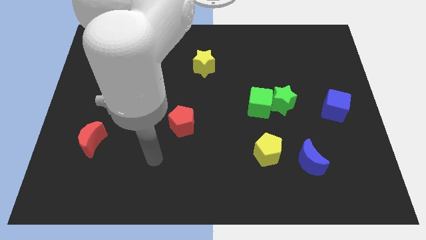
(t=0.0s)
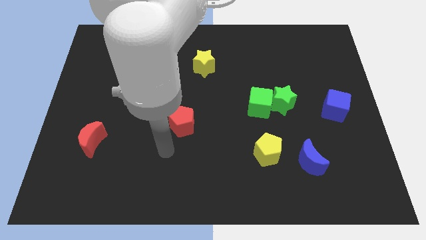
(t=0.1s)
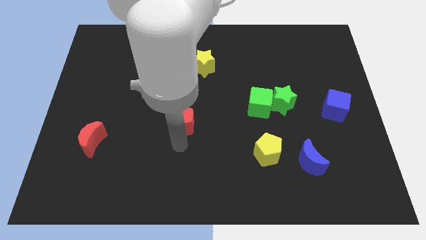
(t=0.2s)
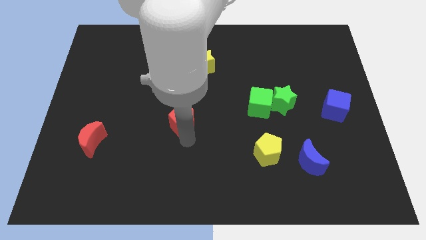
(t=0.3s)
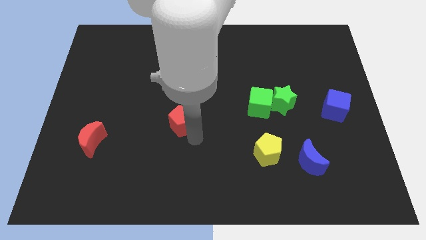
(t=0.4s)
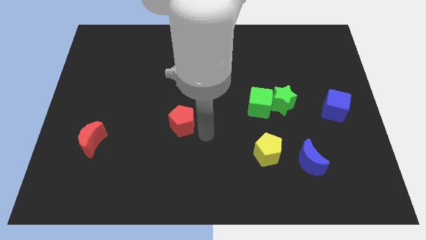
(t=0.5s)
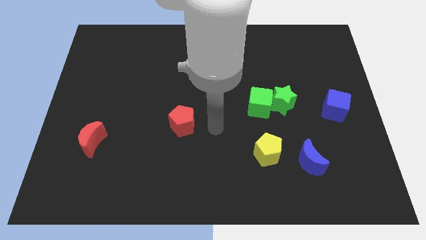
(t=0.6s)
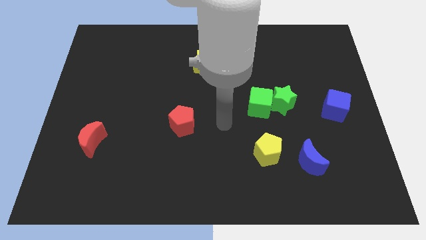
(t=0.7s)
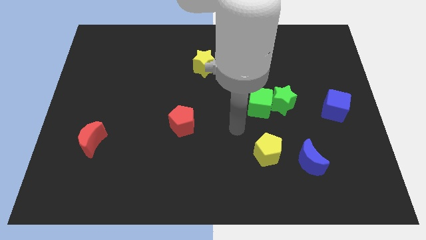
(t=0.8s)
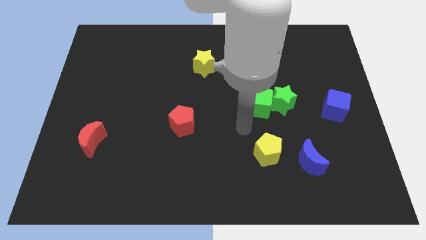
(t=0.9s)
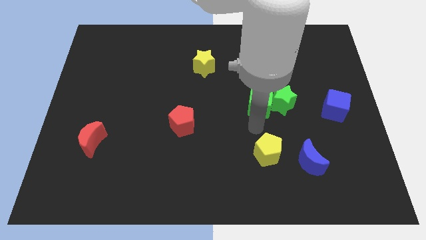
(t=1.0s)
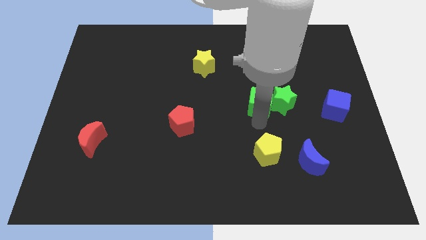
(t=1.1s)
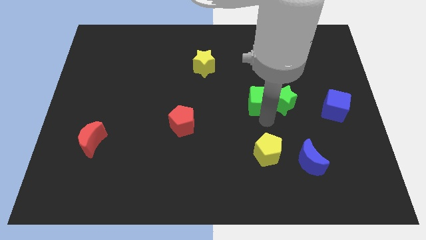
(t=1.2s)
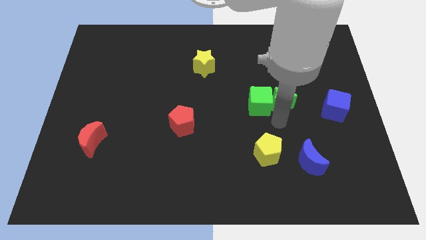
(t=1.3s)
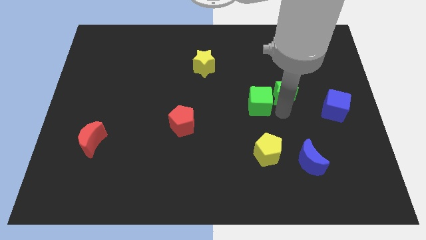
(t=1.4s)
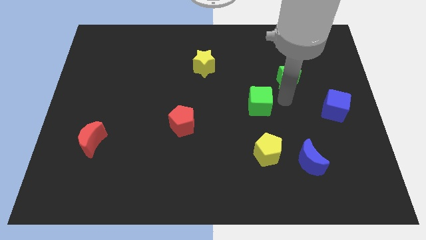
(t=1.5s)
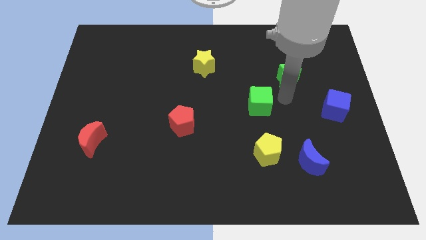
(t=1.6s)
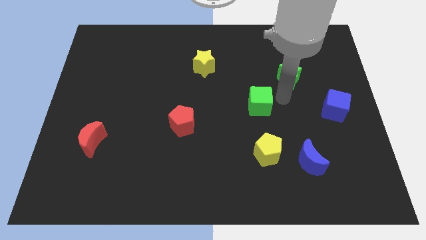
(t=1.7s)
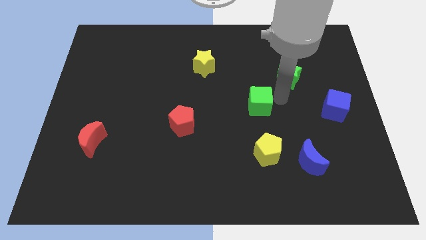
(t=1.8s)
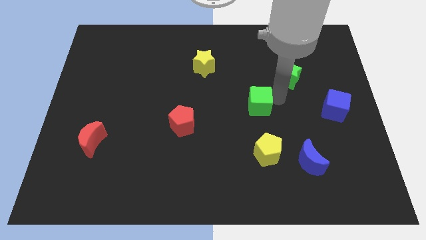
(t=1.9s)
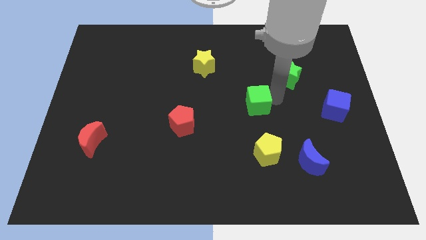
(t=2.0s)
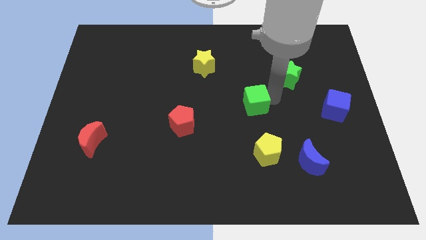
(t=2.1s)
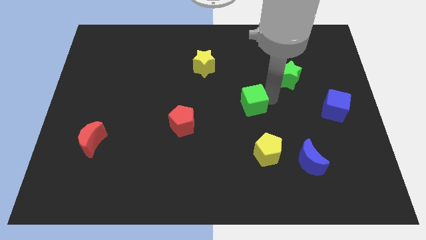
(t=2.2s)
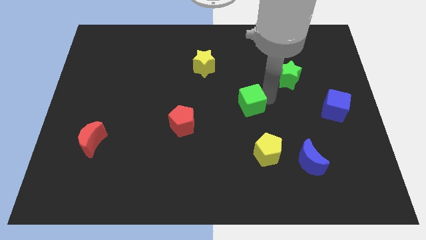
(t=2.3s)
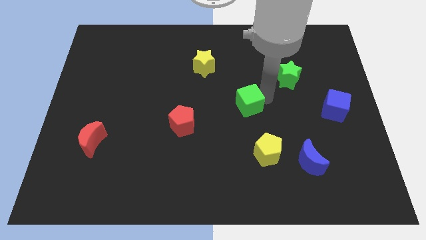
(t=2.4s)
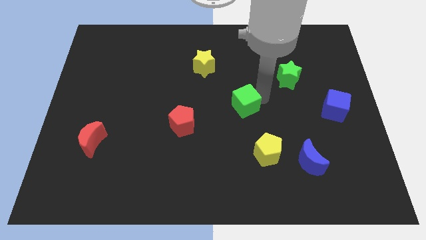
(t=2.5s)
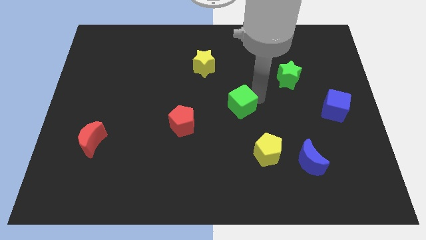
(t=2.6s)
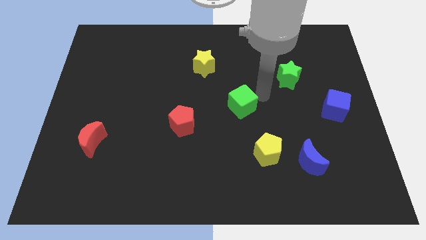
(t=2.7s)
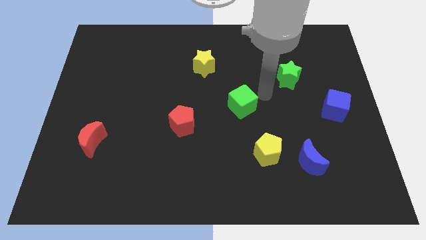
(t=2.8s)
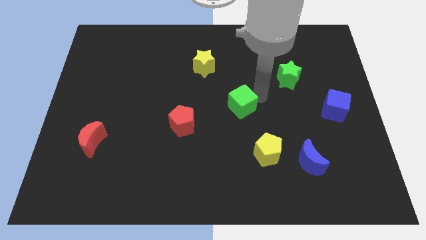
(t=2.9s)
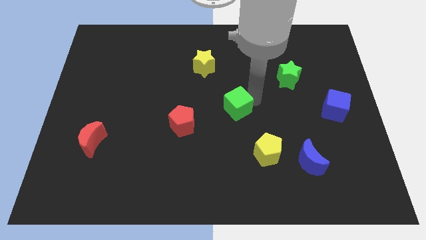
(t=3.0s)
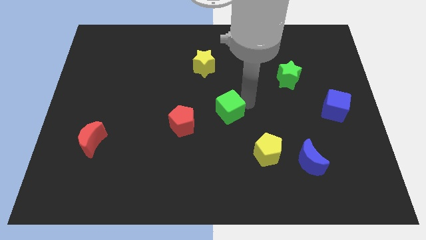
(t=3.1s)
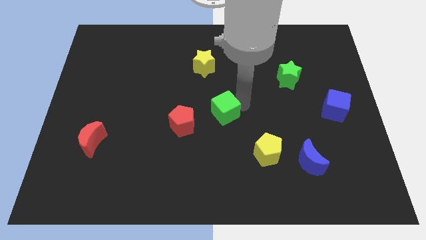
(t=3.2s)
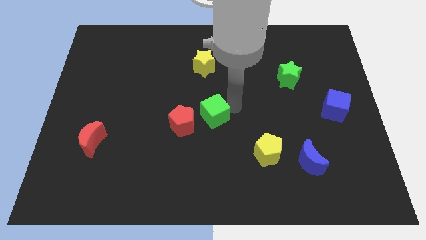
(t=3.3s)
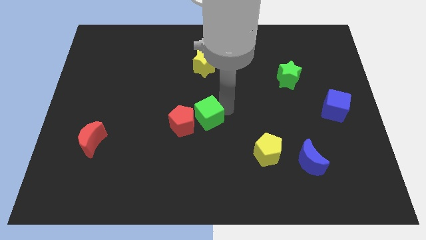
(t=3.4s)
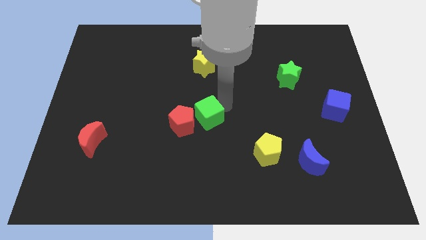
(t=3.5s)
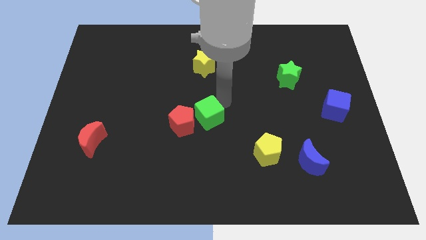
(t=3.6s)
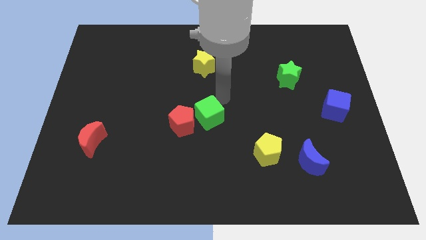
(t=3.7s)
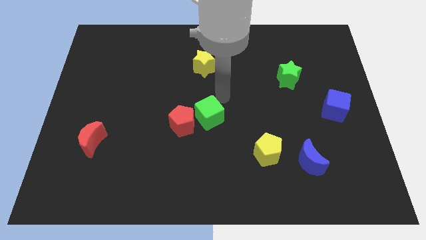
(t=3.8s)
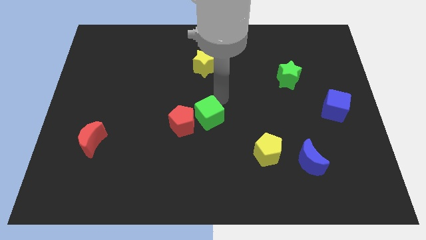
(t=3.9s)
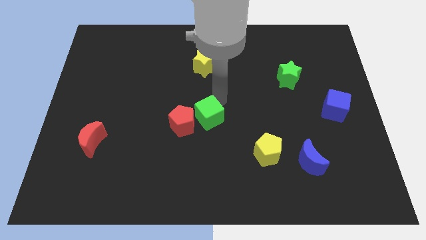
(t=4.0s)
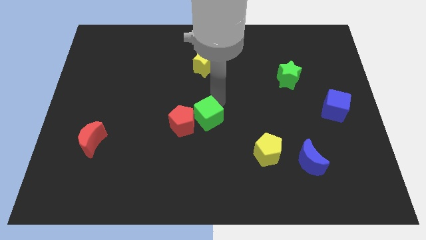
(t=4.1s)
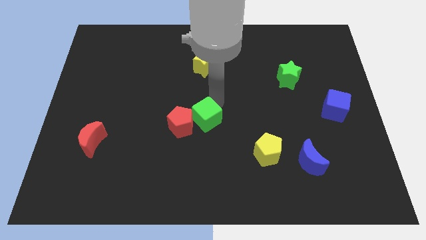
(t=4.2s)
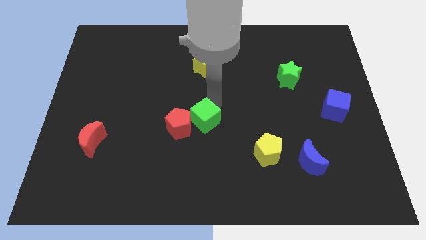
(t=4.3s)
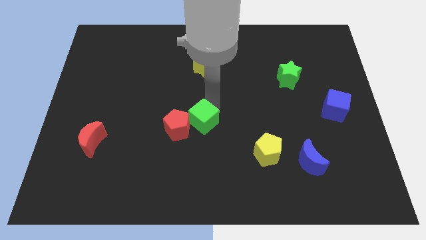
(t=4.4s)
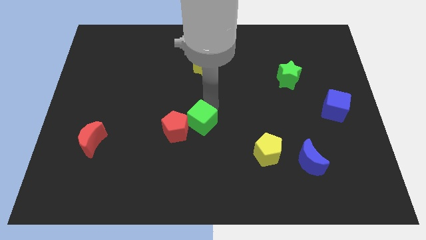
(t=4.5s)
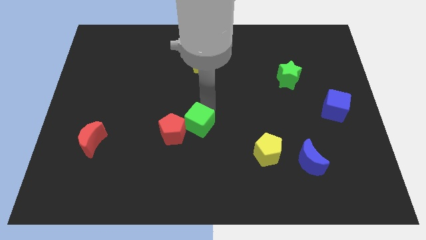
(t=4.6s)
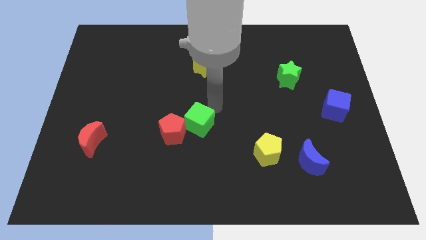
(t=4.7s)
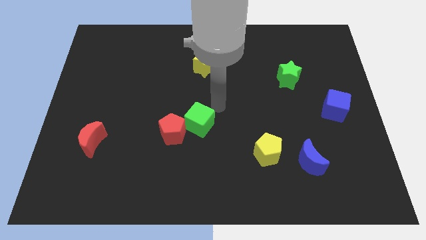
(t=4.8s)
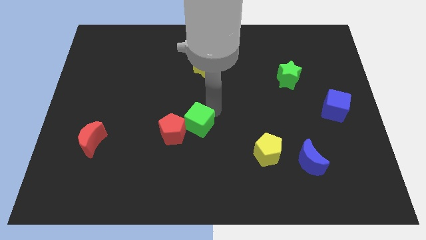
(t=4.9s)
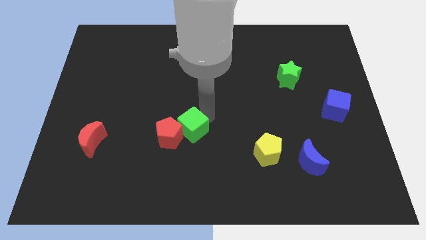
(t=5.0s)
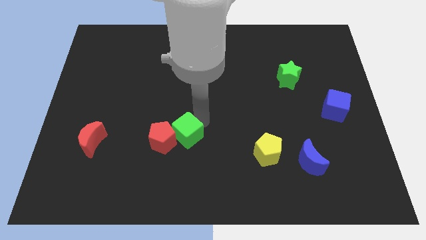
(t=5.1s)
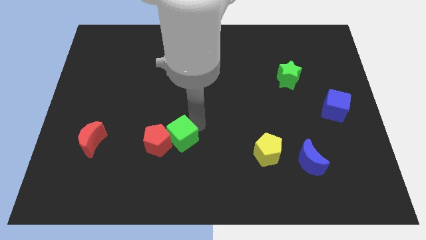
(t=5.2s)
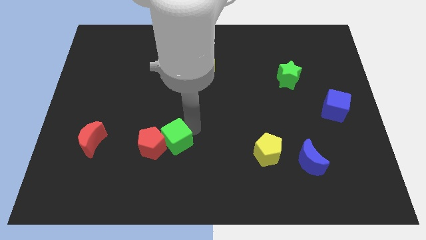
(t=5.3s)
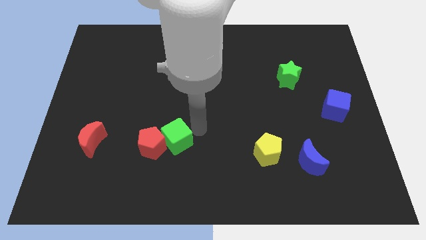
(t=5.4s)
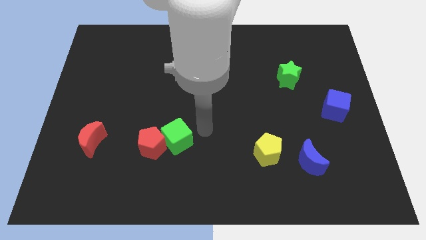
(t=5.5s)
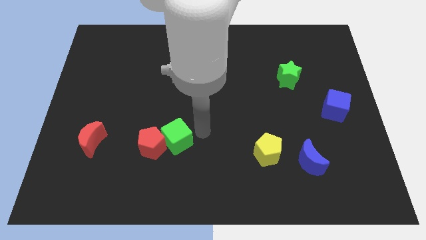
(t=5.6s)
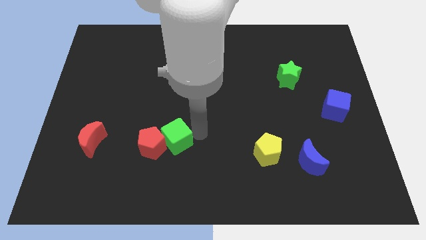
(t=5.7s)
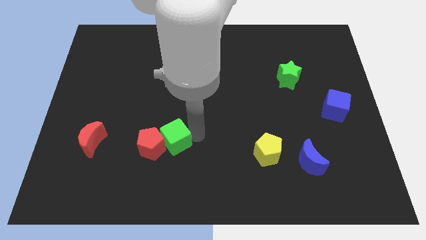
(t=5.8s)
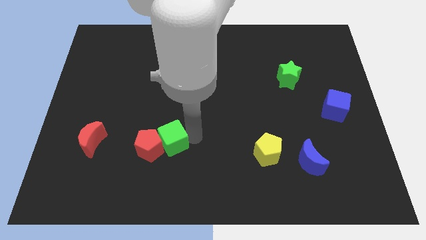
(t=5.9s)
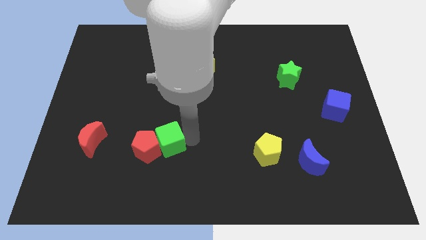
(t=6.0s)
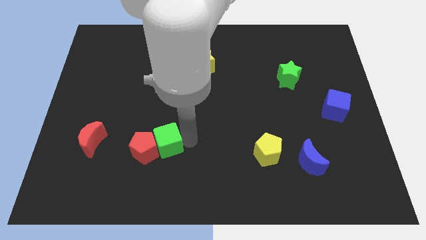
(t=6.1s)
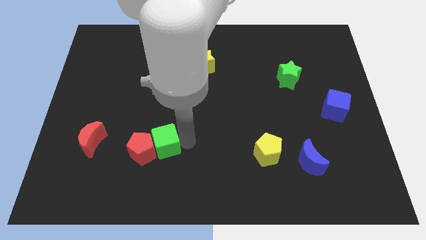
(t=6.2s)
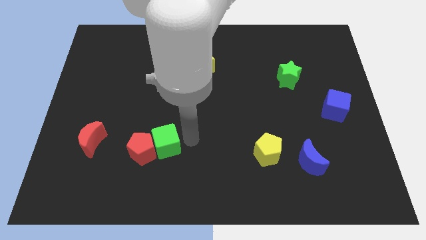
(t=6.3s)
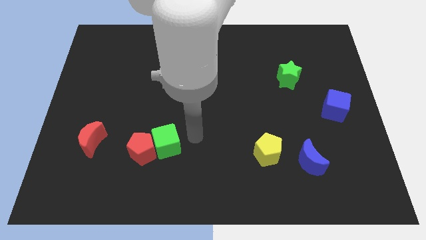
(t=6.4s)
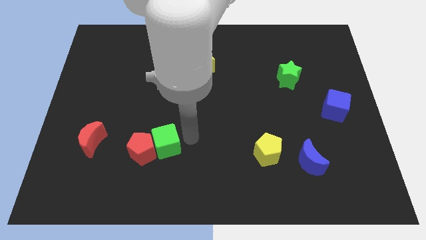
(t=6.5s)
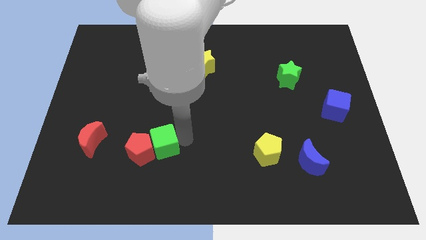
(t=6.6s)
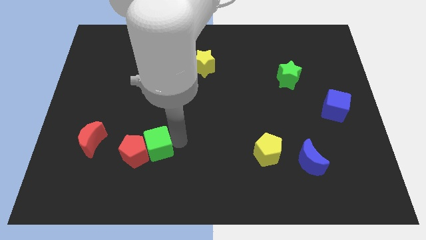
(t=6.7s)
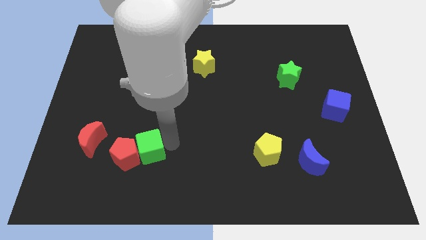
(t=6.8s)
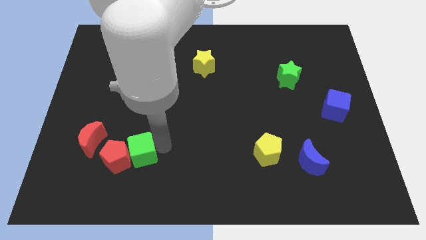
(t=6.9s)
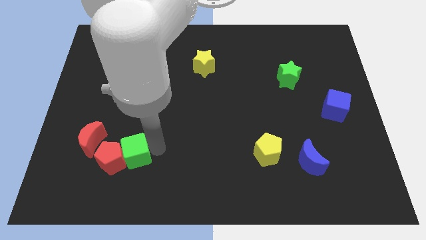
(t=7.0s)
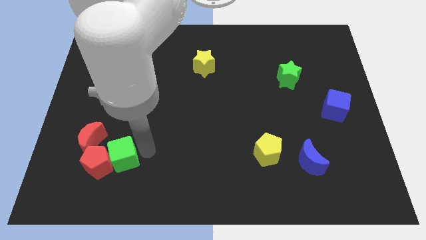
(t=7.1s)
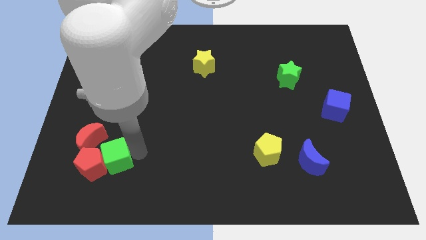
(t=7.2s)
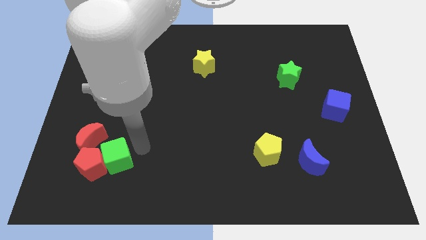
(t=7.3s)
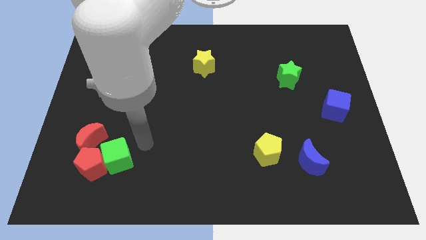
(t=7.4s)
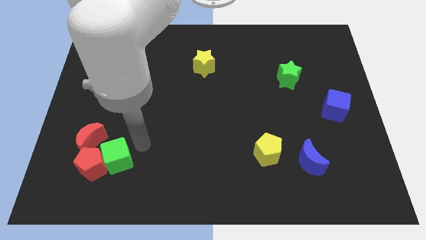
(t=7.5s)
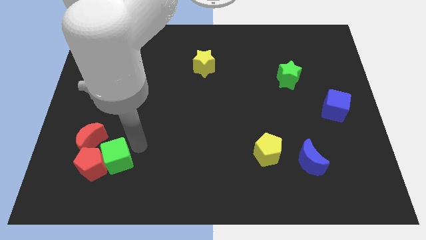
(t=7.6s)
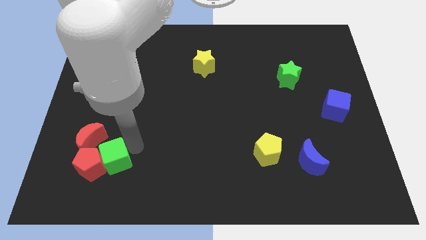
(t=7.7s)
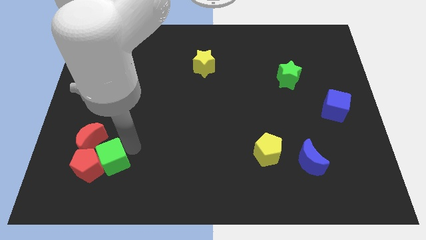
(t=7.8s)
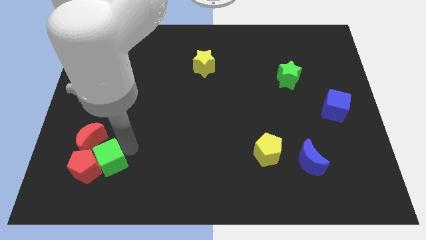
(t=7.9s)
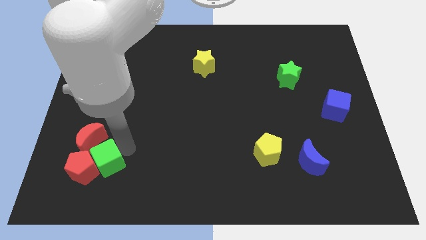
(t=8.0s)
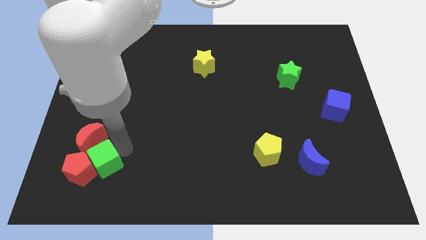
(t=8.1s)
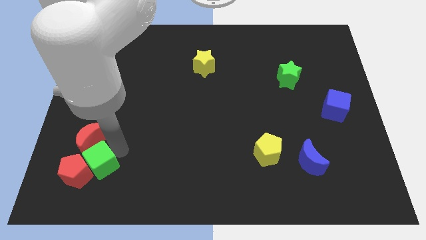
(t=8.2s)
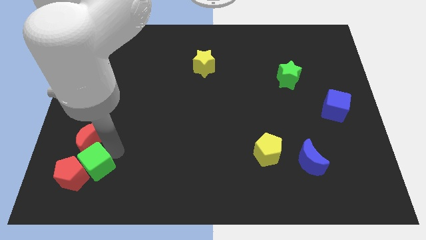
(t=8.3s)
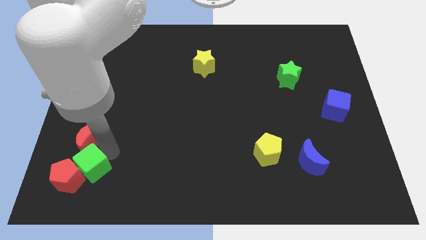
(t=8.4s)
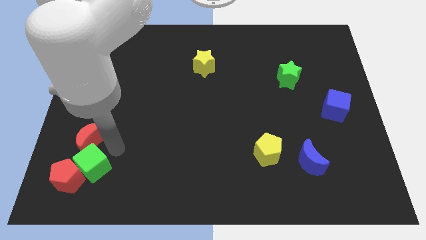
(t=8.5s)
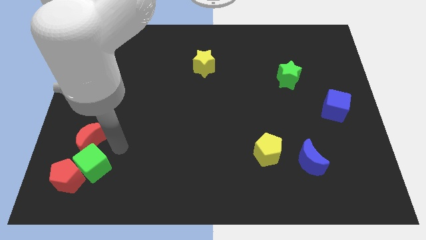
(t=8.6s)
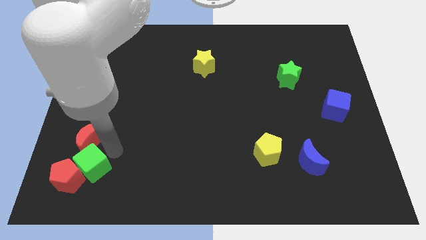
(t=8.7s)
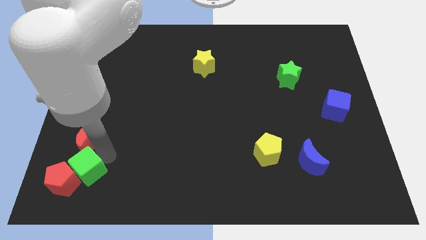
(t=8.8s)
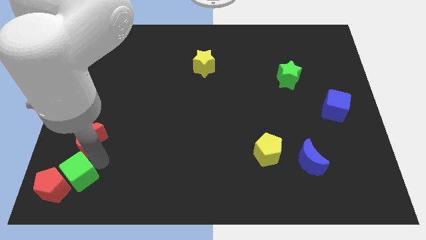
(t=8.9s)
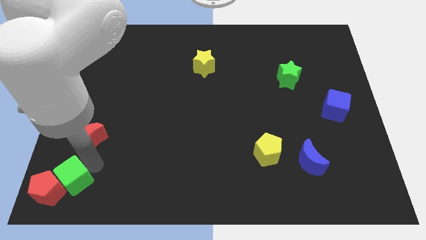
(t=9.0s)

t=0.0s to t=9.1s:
slide the green cube to the bottom left of the board
